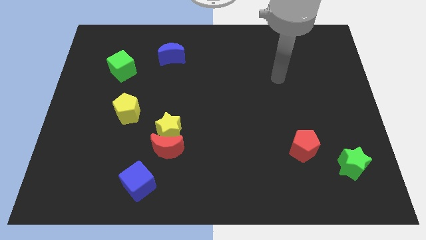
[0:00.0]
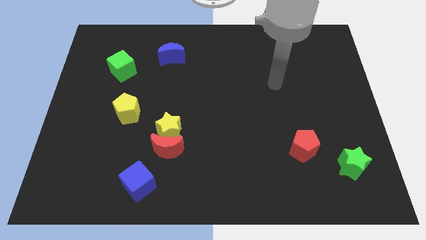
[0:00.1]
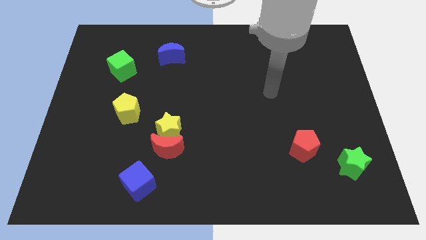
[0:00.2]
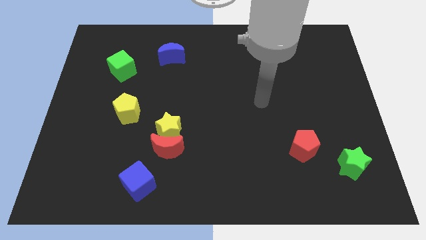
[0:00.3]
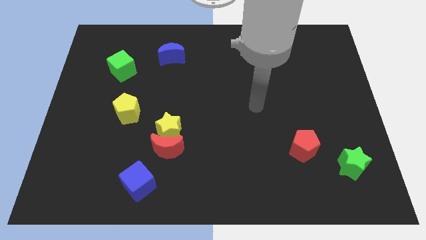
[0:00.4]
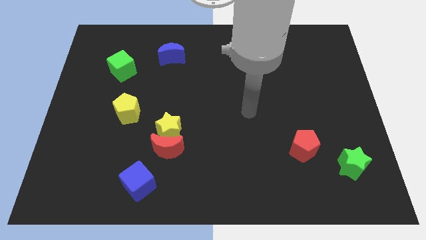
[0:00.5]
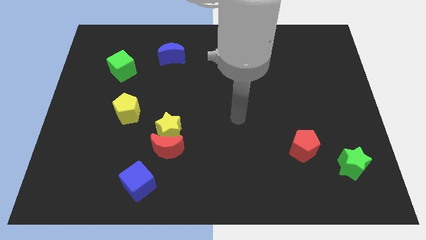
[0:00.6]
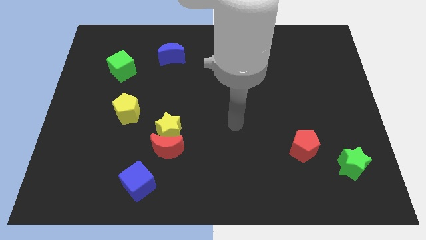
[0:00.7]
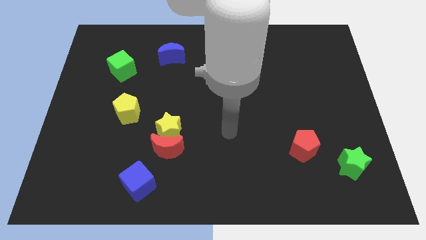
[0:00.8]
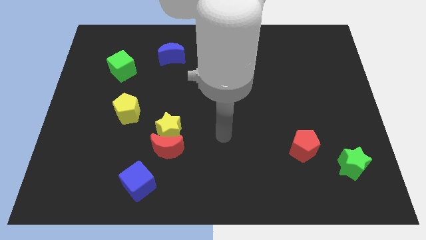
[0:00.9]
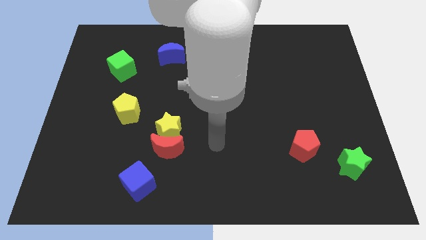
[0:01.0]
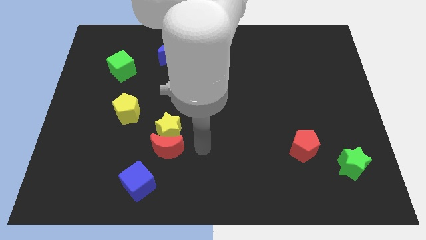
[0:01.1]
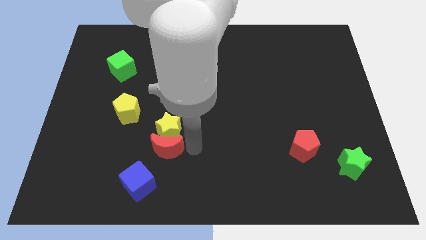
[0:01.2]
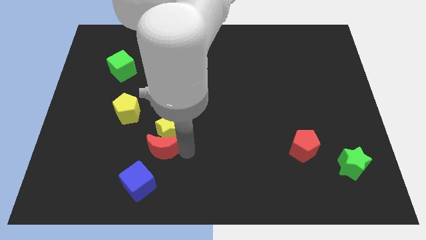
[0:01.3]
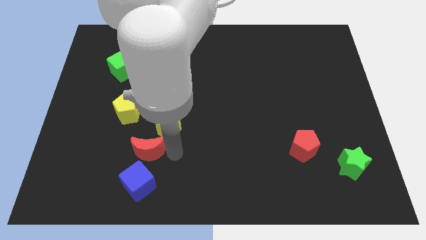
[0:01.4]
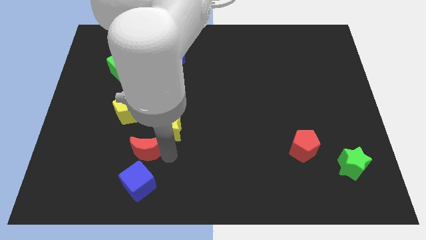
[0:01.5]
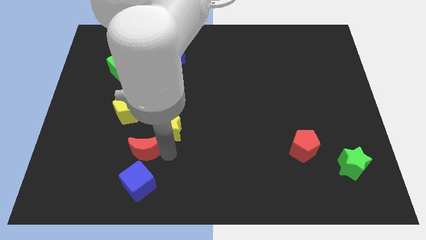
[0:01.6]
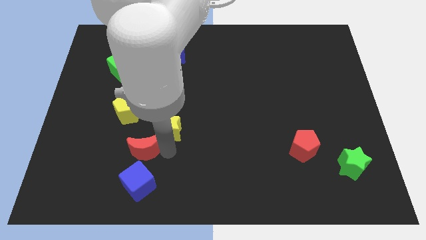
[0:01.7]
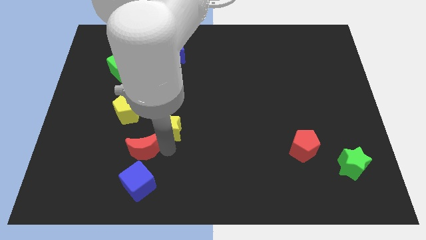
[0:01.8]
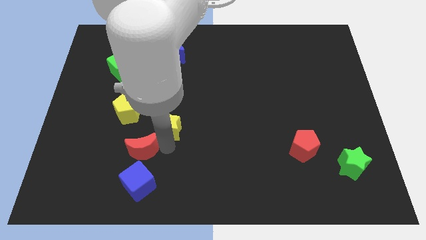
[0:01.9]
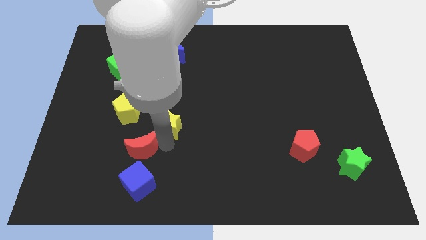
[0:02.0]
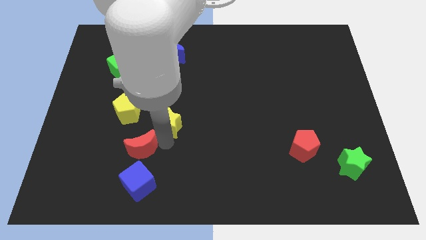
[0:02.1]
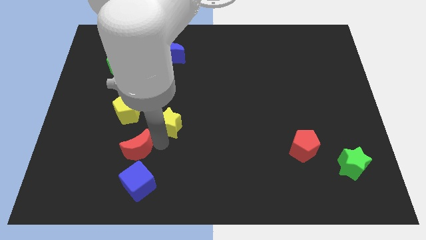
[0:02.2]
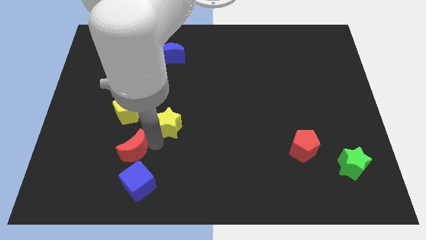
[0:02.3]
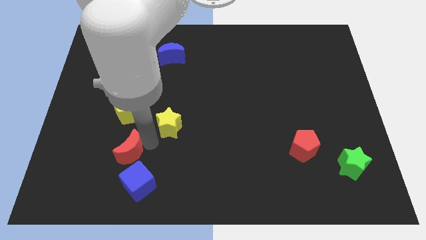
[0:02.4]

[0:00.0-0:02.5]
pull the yellow star apart from the red moon

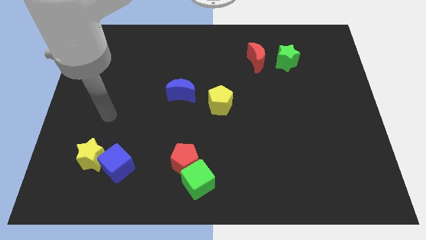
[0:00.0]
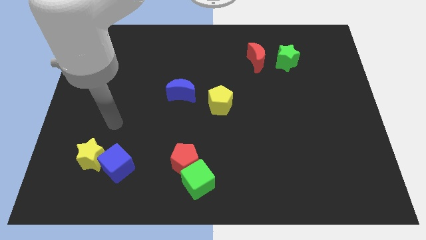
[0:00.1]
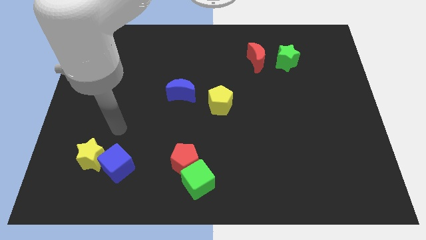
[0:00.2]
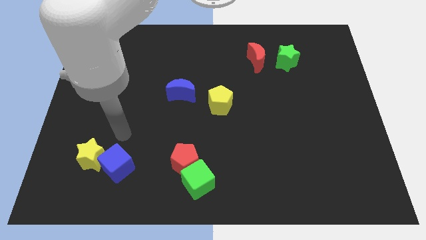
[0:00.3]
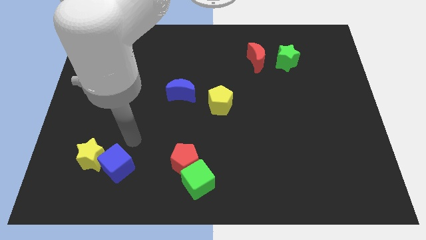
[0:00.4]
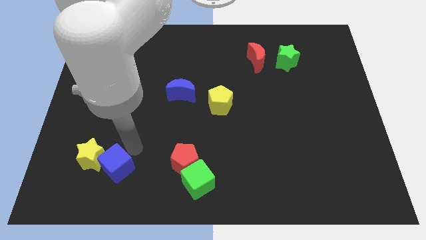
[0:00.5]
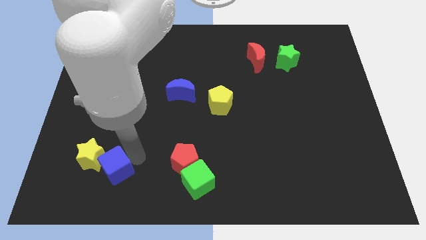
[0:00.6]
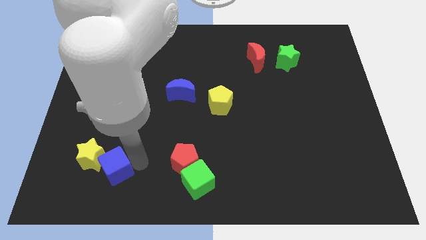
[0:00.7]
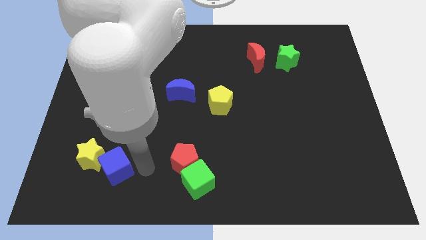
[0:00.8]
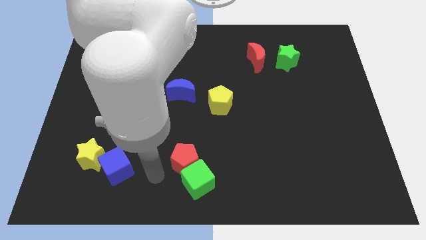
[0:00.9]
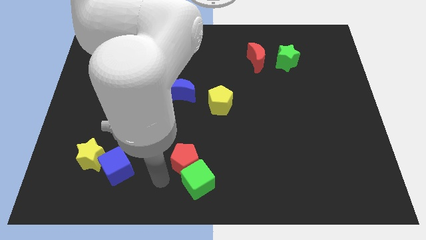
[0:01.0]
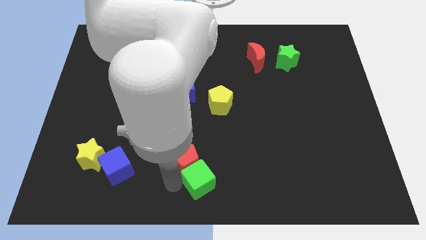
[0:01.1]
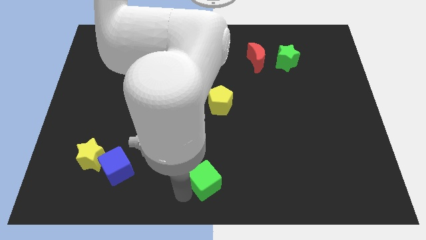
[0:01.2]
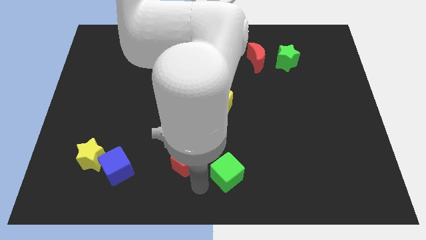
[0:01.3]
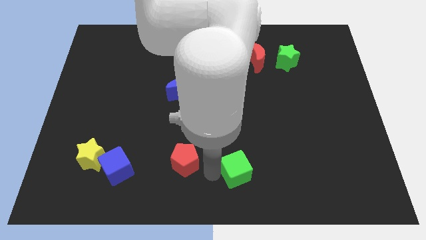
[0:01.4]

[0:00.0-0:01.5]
separate the red pentagon from the green cube

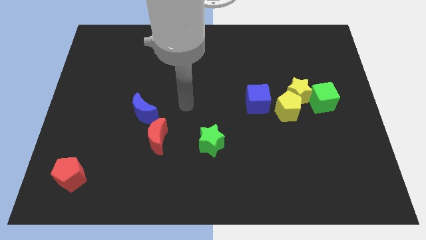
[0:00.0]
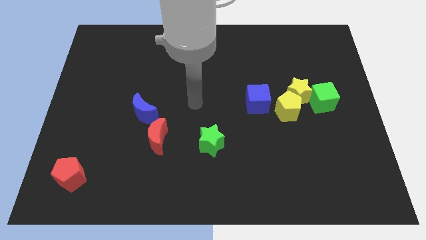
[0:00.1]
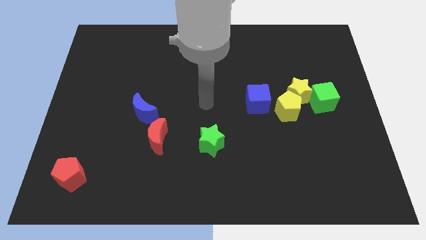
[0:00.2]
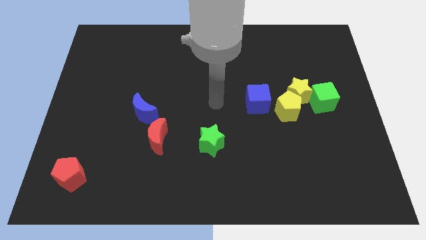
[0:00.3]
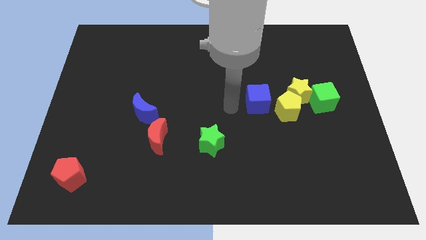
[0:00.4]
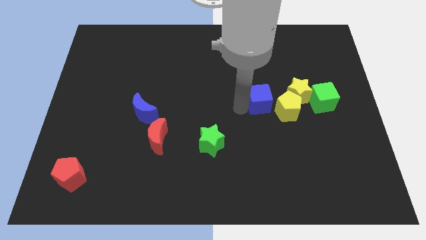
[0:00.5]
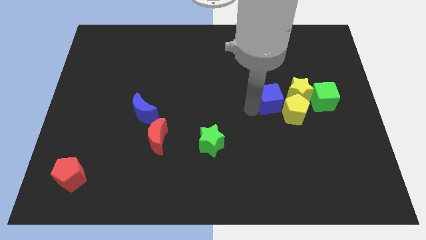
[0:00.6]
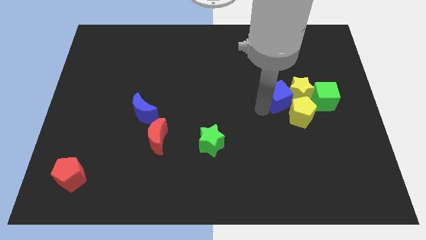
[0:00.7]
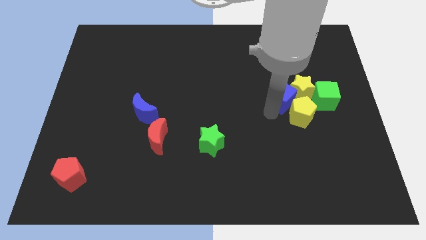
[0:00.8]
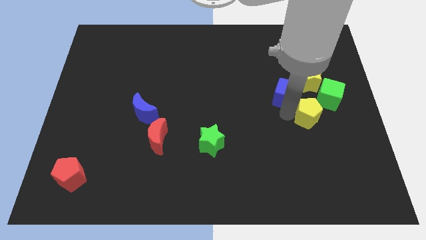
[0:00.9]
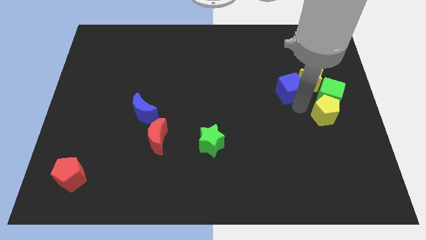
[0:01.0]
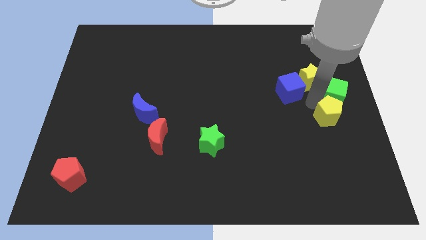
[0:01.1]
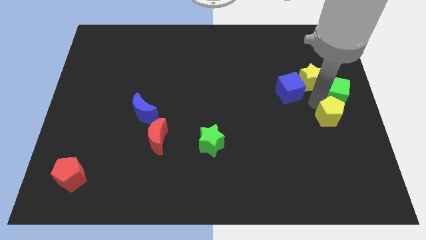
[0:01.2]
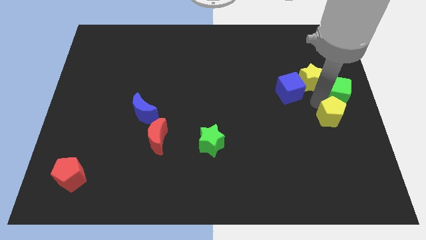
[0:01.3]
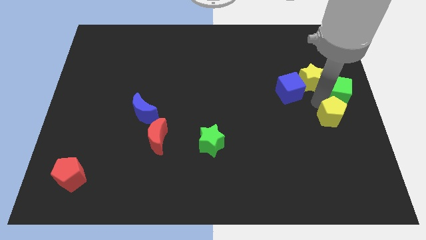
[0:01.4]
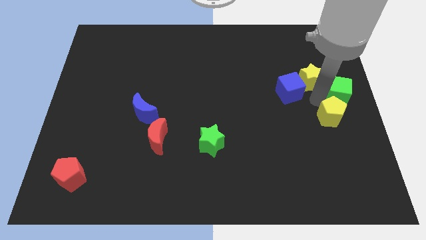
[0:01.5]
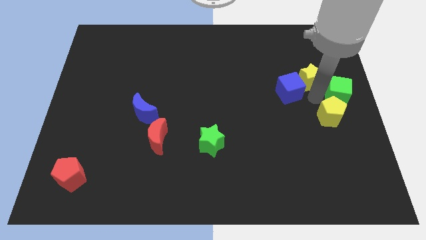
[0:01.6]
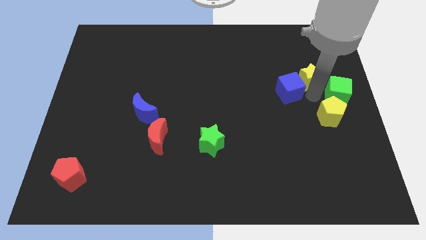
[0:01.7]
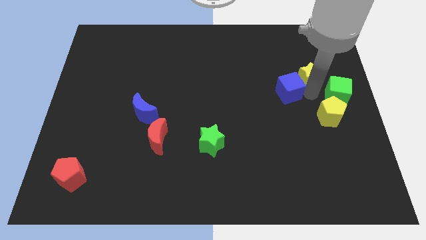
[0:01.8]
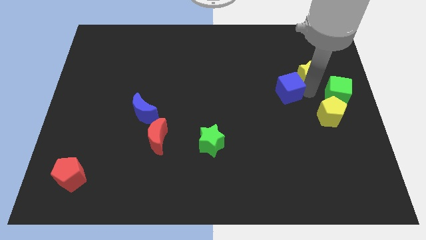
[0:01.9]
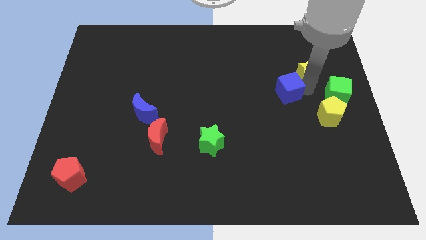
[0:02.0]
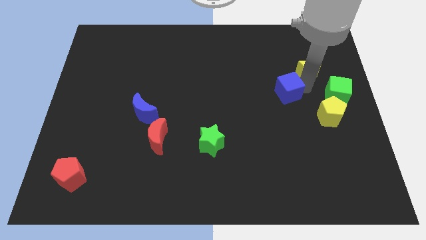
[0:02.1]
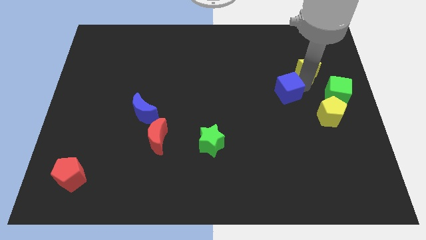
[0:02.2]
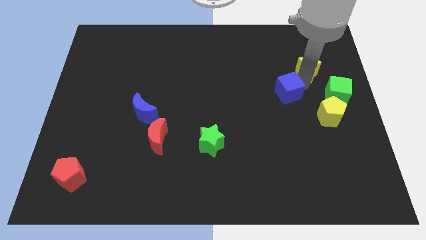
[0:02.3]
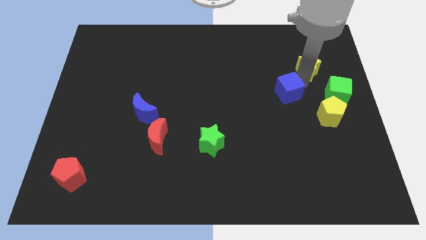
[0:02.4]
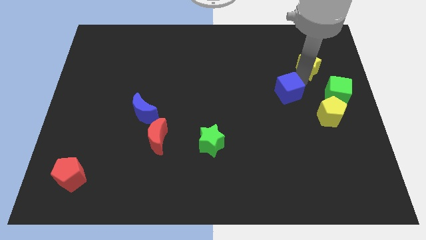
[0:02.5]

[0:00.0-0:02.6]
move the yellow star away from the yellow pentagon, green cube, and blue cube

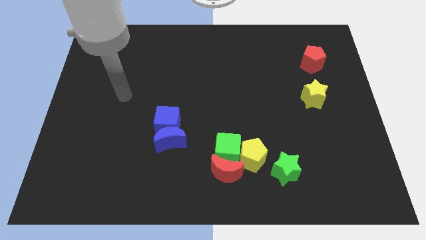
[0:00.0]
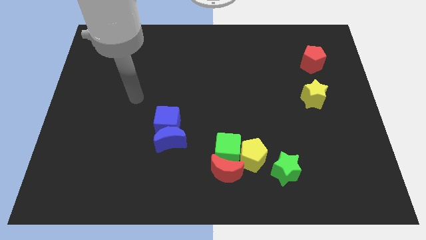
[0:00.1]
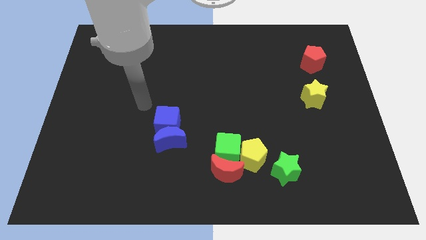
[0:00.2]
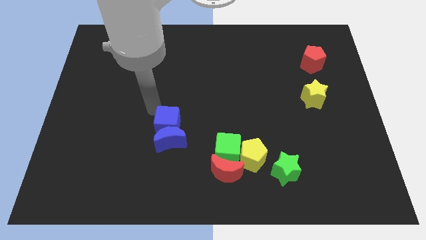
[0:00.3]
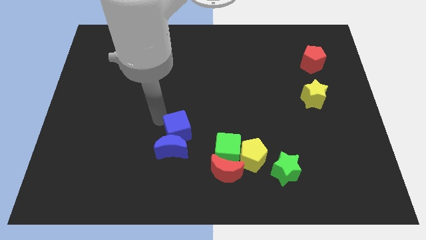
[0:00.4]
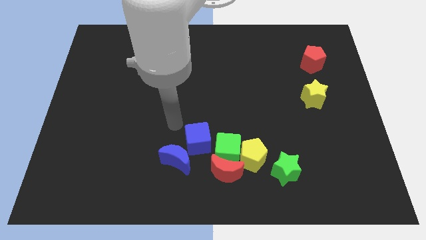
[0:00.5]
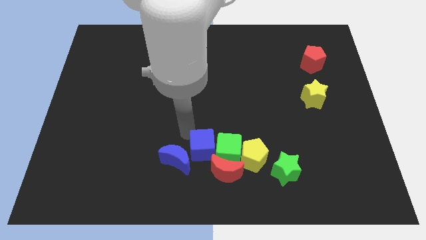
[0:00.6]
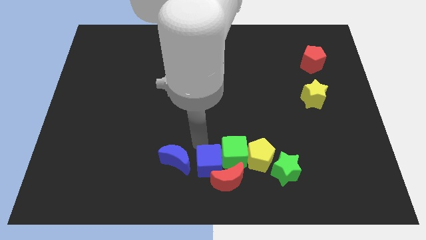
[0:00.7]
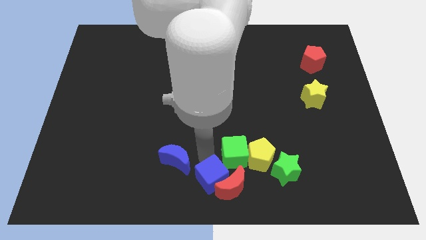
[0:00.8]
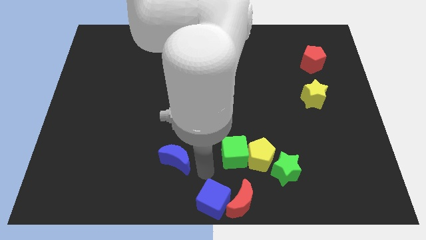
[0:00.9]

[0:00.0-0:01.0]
separate the blue moon from the blue cube

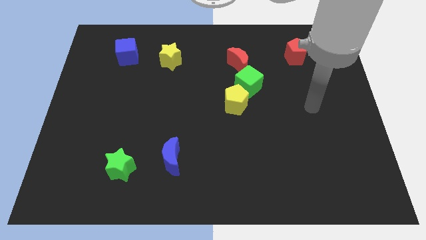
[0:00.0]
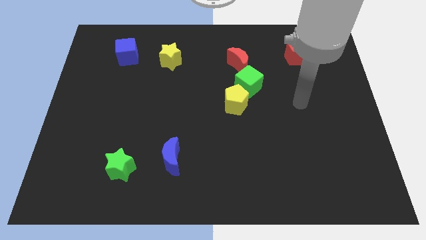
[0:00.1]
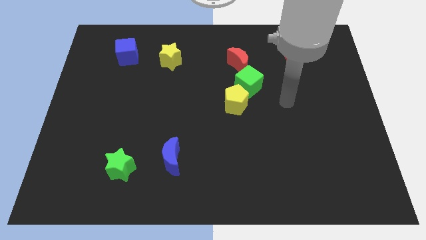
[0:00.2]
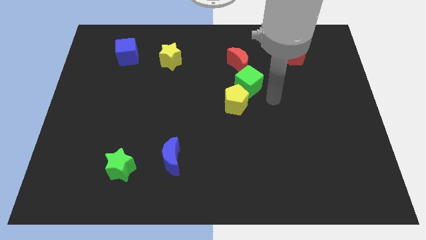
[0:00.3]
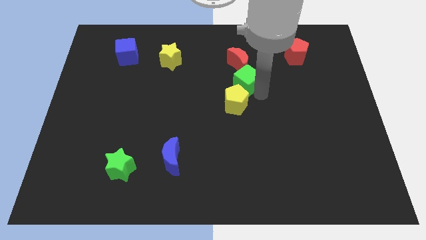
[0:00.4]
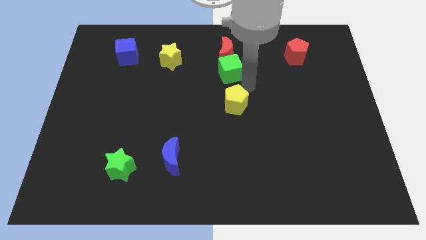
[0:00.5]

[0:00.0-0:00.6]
separate the yellow pentagon from the green cube

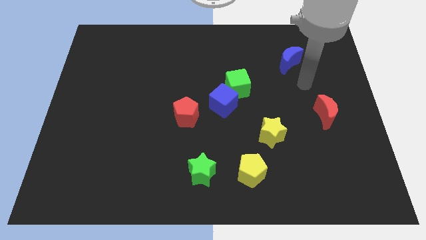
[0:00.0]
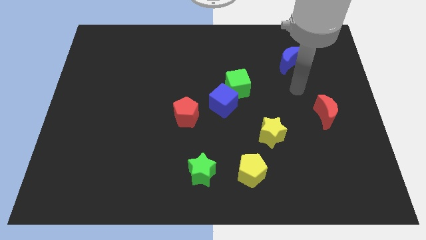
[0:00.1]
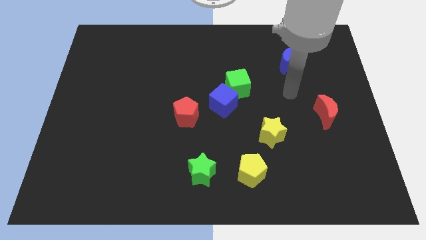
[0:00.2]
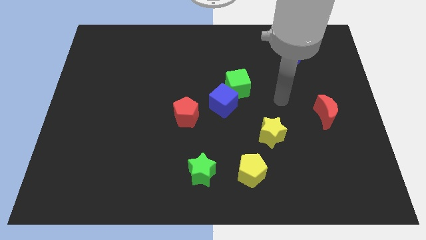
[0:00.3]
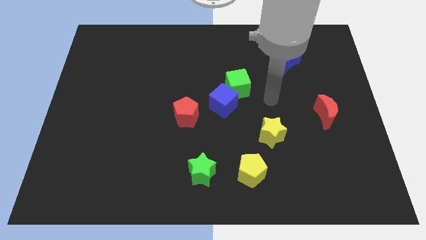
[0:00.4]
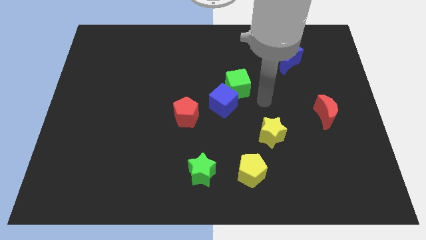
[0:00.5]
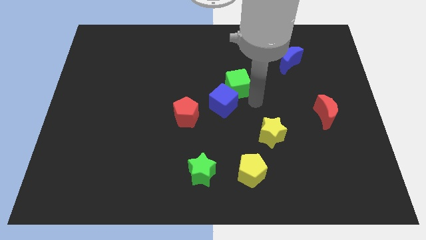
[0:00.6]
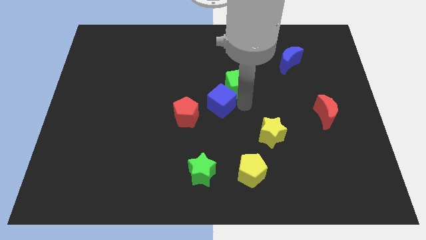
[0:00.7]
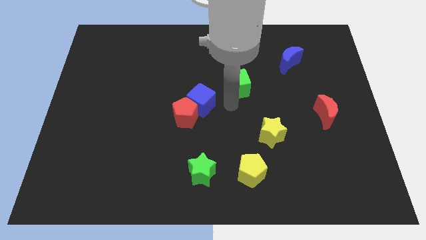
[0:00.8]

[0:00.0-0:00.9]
move the green cube away from the blue cube

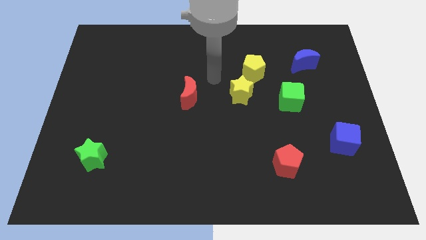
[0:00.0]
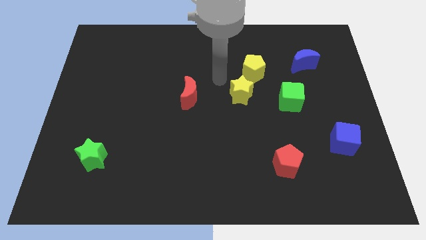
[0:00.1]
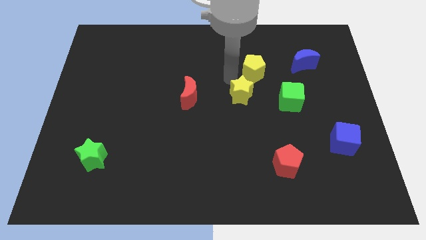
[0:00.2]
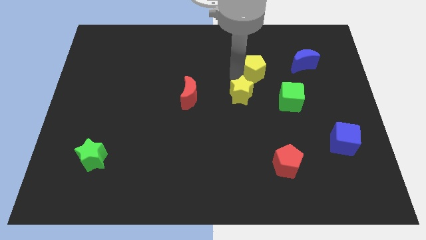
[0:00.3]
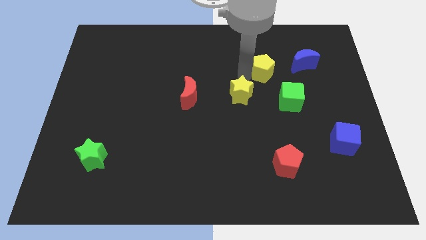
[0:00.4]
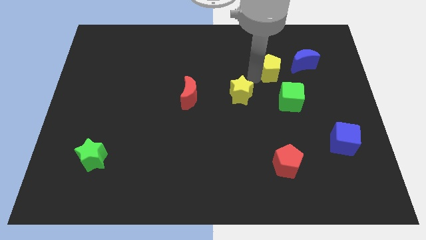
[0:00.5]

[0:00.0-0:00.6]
separate the yellow star from the yellow pentagon
